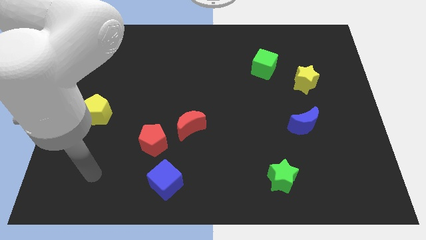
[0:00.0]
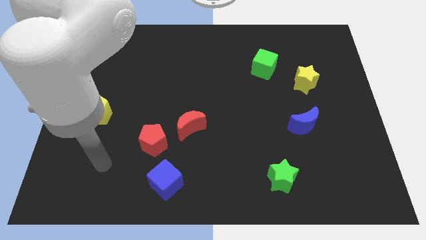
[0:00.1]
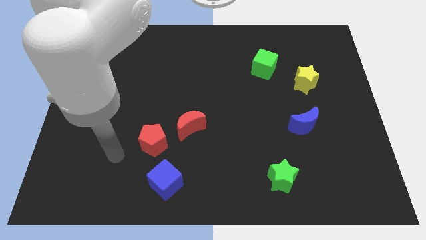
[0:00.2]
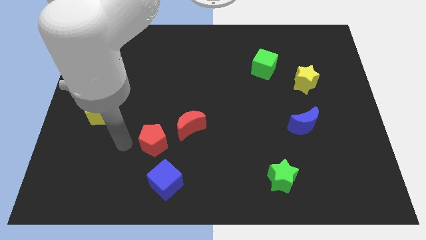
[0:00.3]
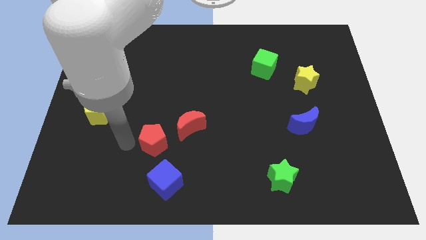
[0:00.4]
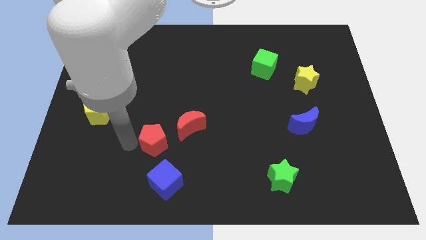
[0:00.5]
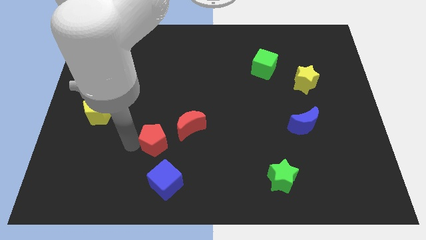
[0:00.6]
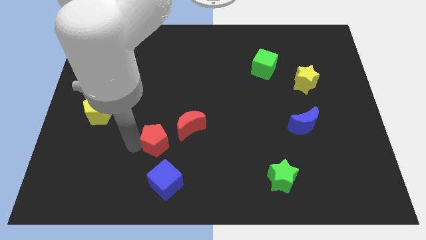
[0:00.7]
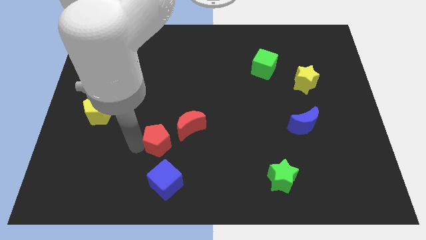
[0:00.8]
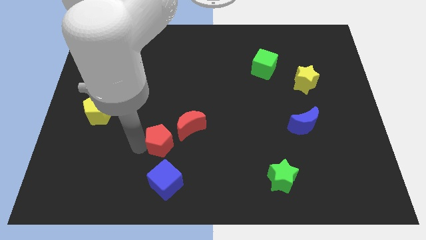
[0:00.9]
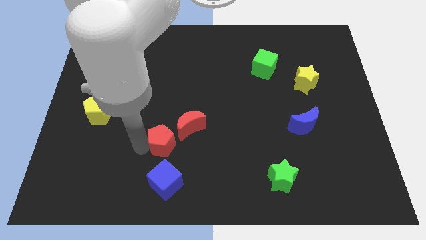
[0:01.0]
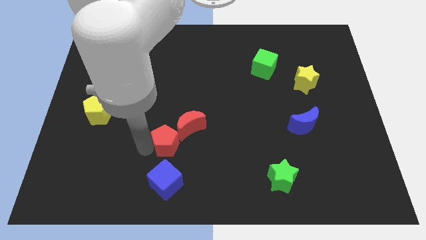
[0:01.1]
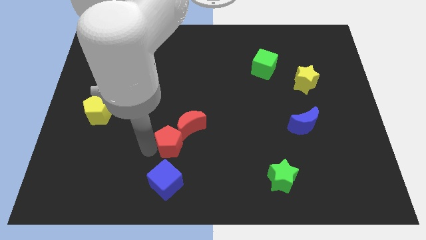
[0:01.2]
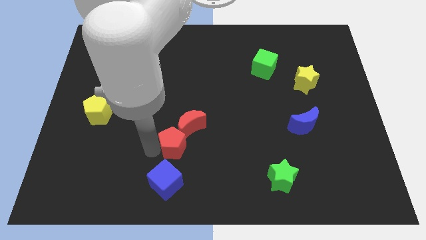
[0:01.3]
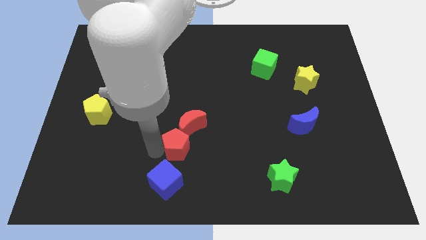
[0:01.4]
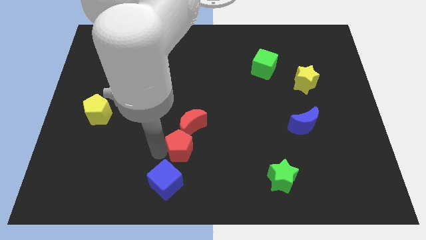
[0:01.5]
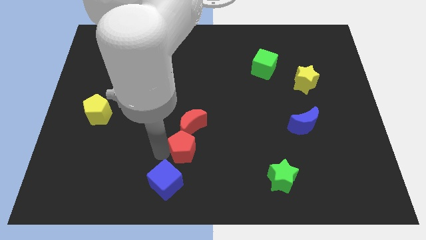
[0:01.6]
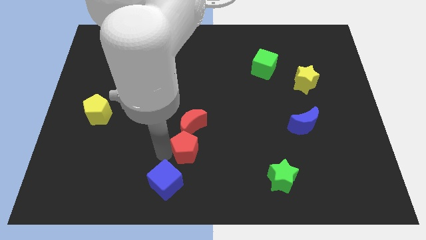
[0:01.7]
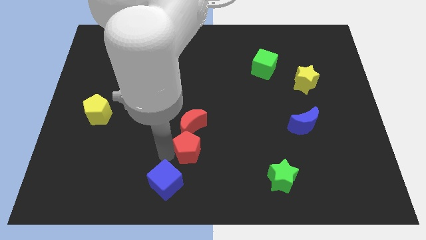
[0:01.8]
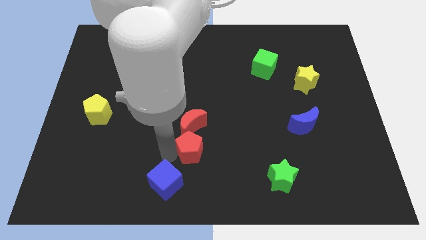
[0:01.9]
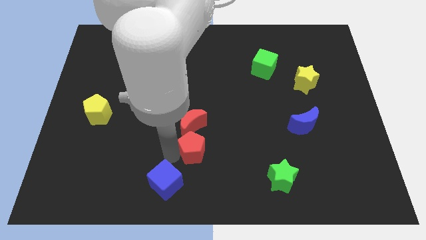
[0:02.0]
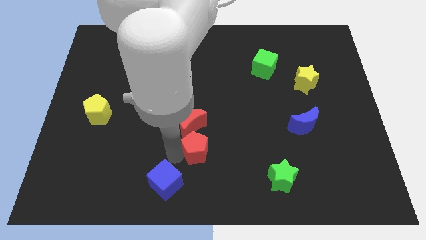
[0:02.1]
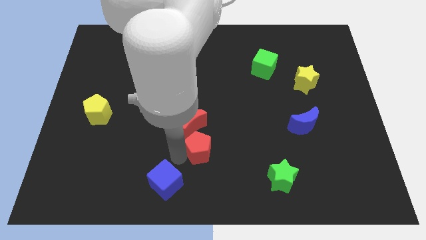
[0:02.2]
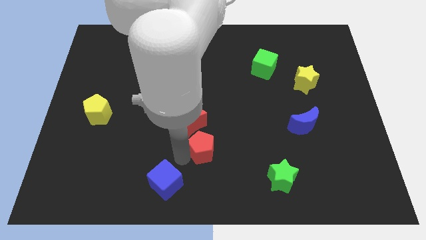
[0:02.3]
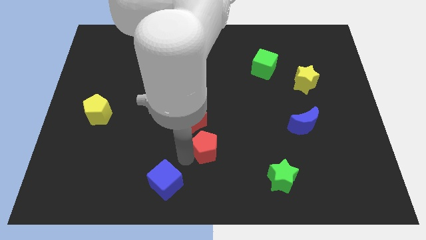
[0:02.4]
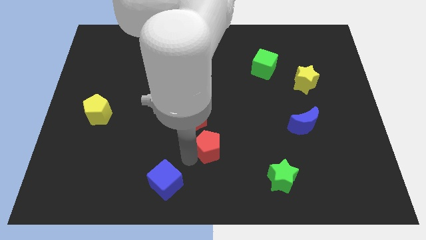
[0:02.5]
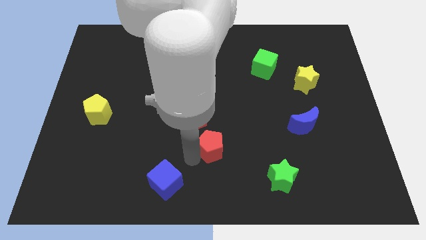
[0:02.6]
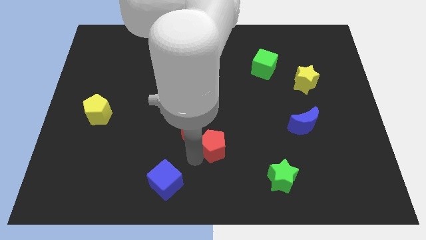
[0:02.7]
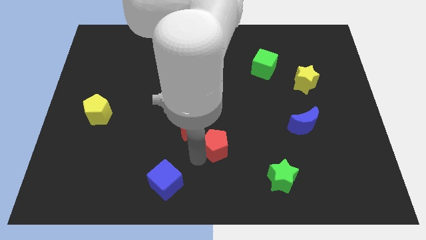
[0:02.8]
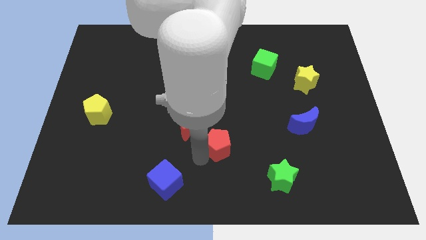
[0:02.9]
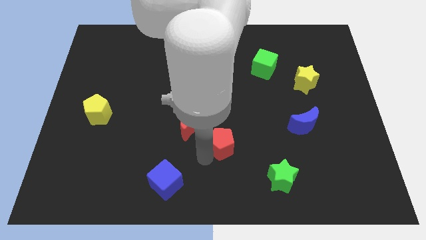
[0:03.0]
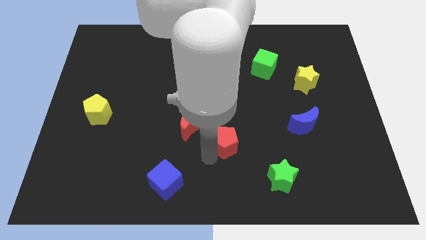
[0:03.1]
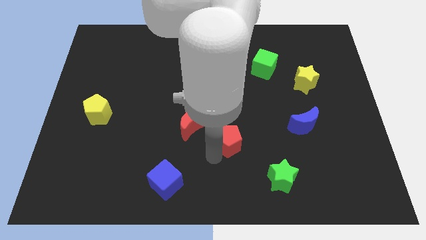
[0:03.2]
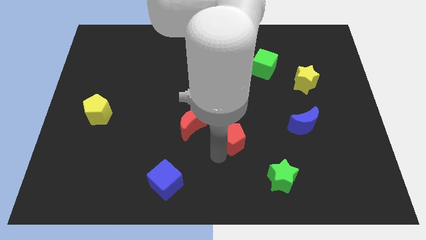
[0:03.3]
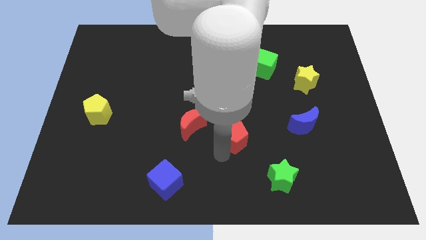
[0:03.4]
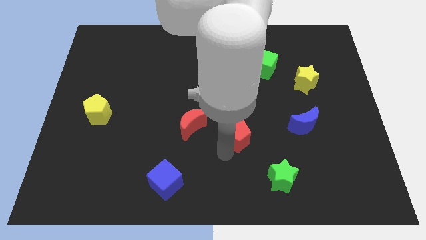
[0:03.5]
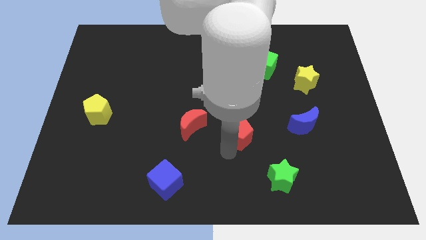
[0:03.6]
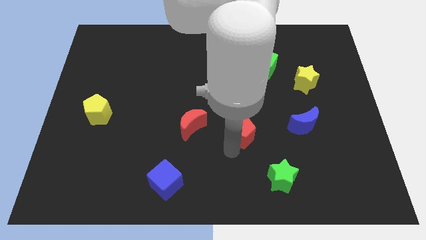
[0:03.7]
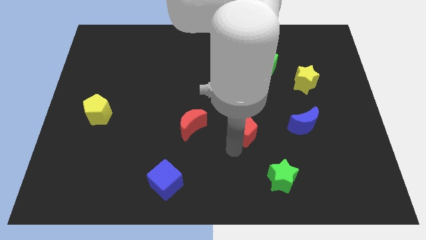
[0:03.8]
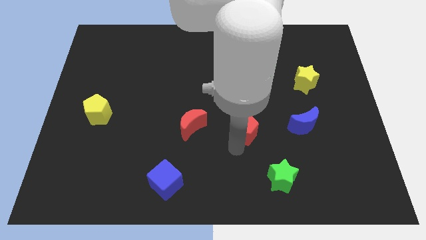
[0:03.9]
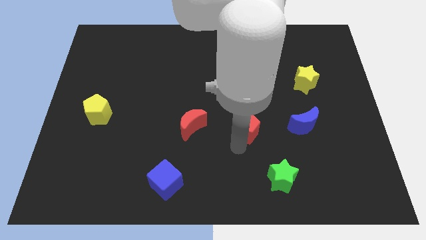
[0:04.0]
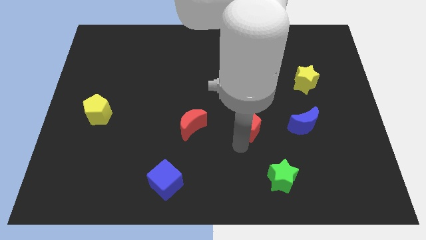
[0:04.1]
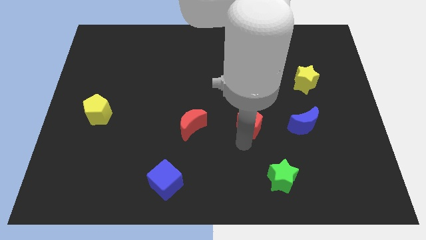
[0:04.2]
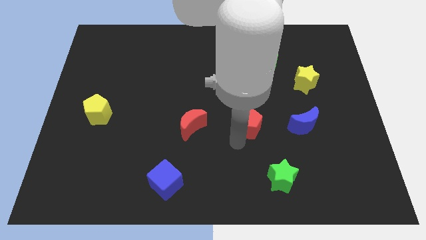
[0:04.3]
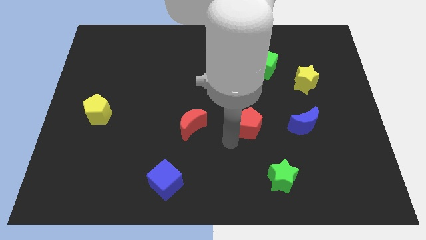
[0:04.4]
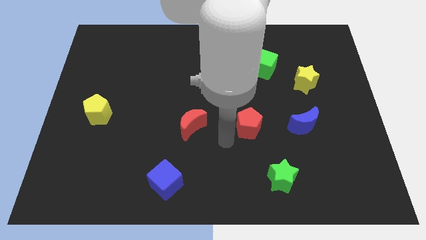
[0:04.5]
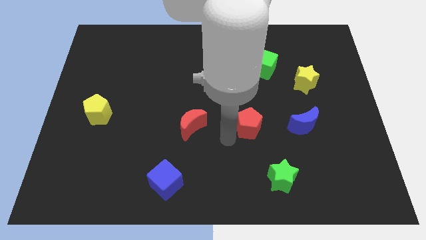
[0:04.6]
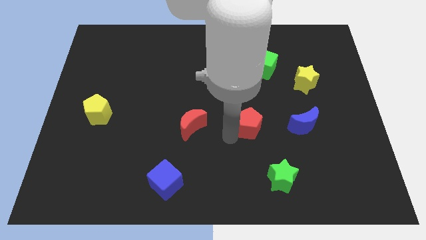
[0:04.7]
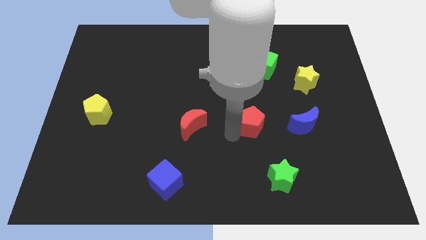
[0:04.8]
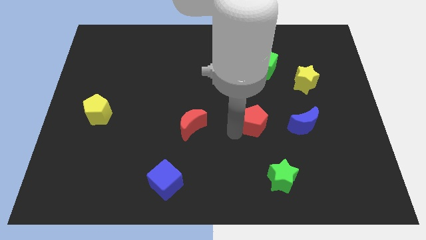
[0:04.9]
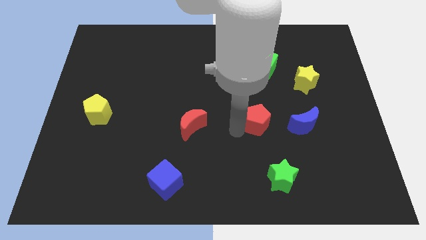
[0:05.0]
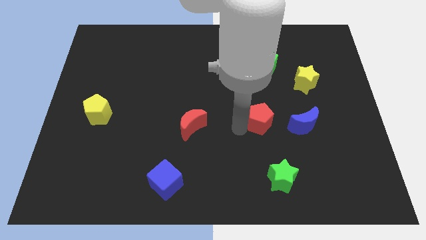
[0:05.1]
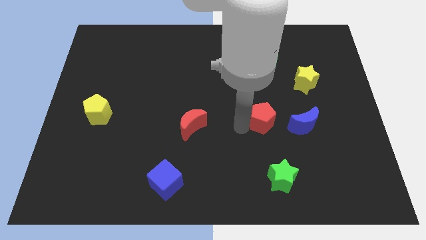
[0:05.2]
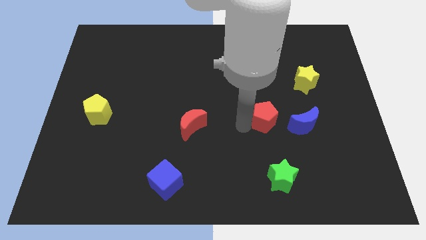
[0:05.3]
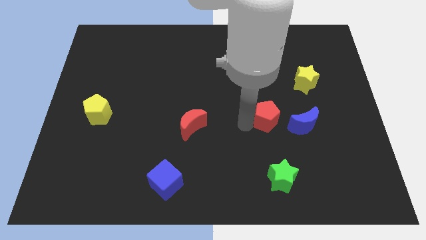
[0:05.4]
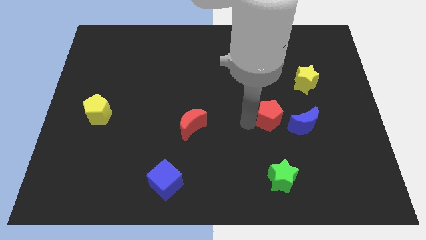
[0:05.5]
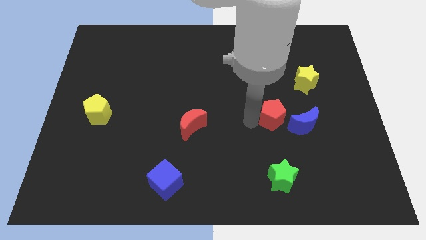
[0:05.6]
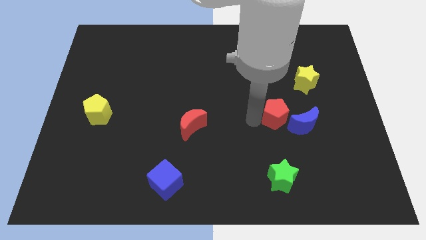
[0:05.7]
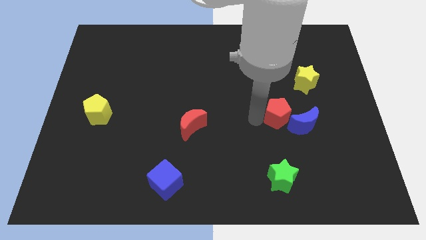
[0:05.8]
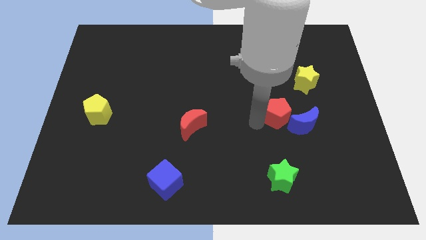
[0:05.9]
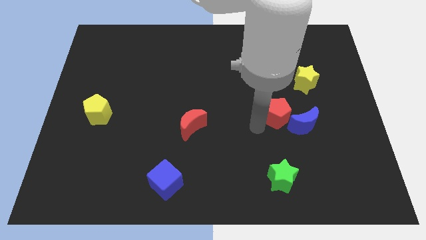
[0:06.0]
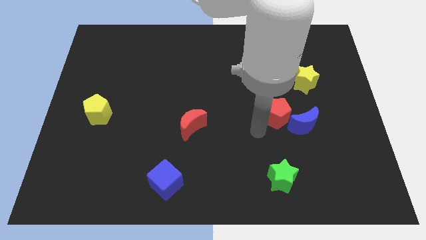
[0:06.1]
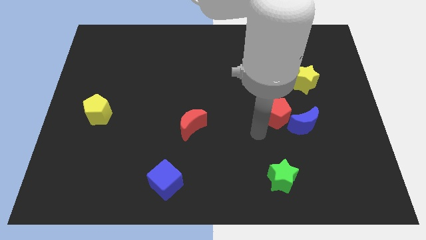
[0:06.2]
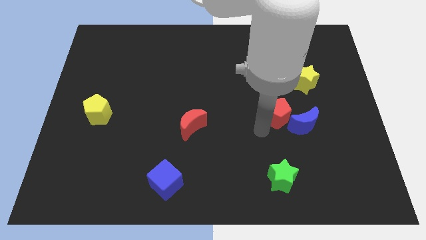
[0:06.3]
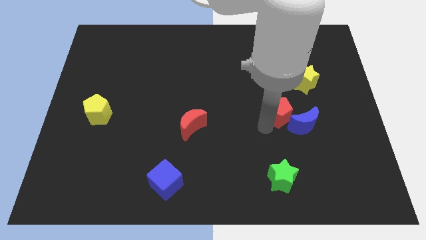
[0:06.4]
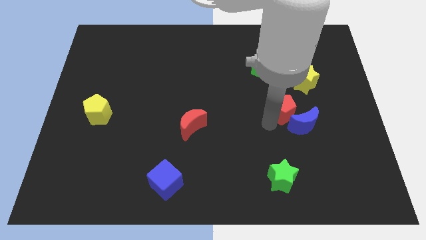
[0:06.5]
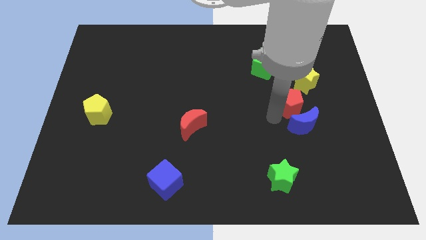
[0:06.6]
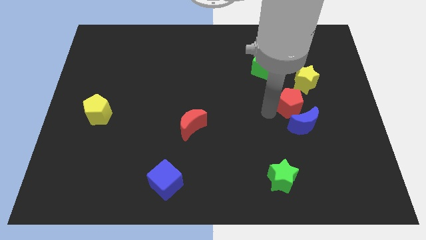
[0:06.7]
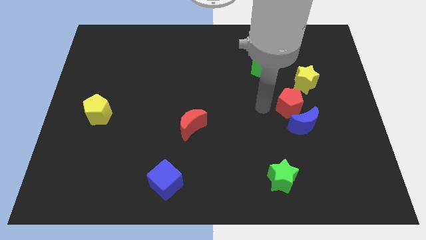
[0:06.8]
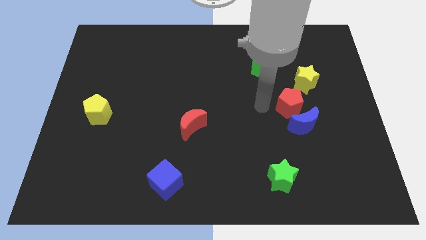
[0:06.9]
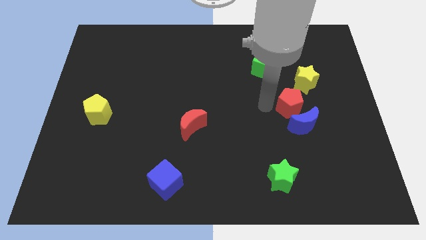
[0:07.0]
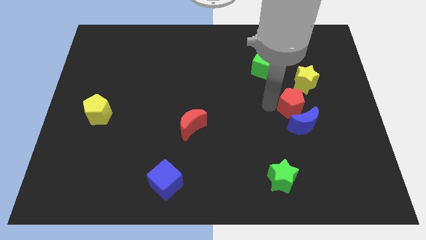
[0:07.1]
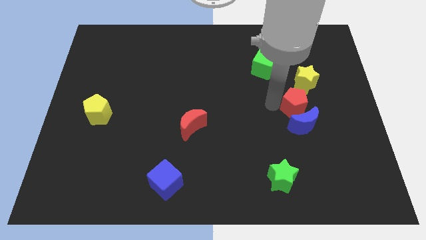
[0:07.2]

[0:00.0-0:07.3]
put the red pentagon to the top right of the blue moon

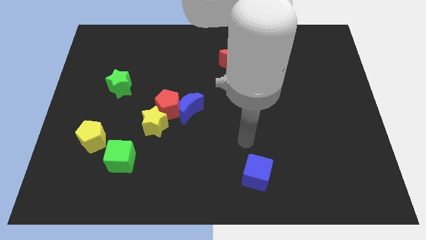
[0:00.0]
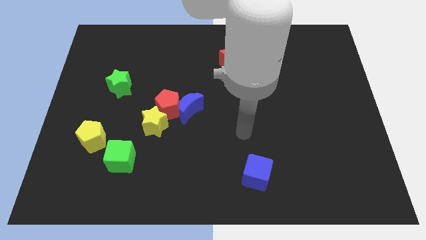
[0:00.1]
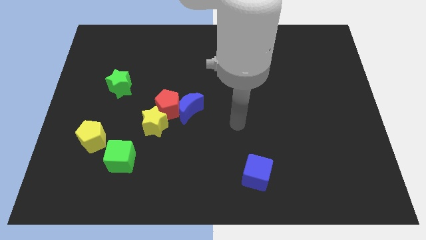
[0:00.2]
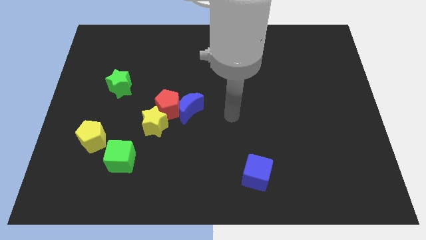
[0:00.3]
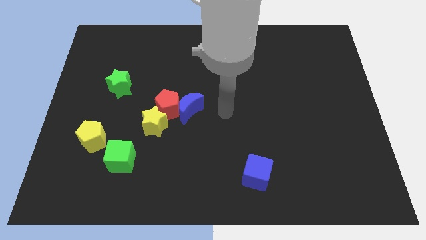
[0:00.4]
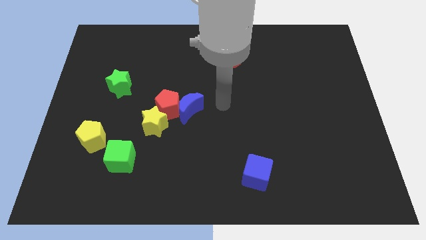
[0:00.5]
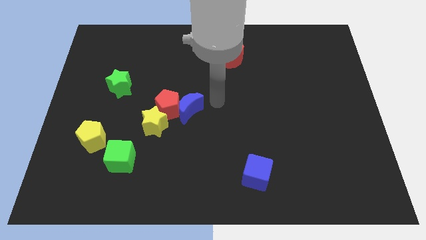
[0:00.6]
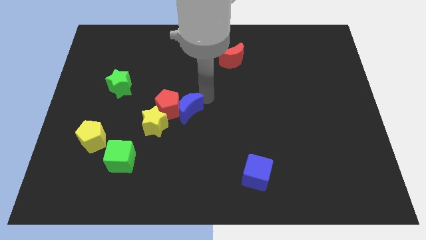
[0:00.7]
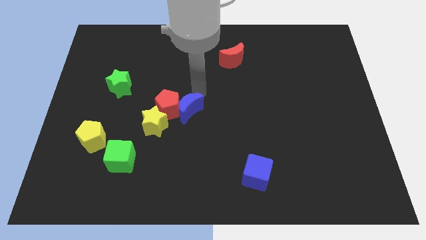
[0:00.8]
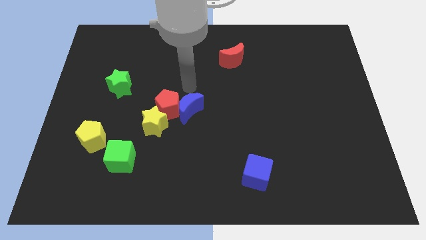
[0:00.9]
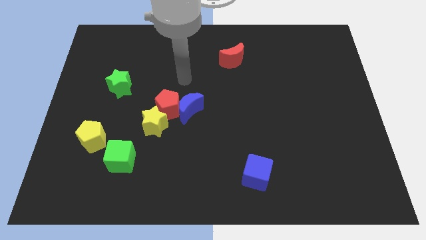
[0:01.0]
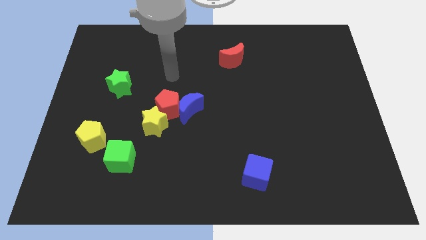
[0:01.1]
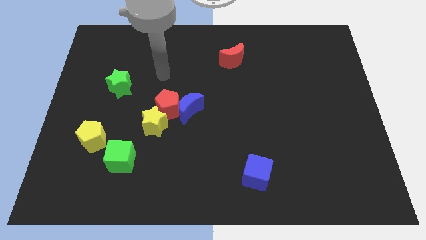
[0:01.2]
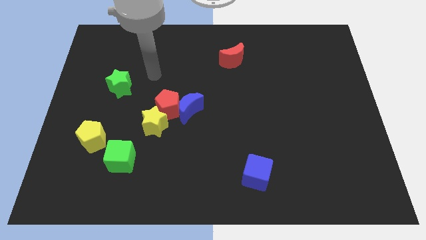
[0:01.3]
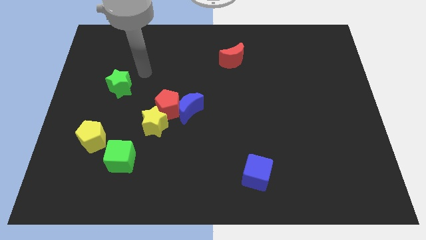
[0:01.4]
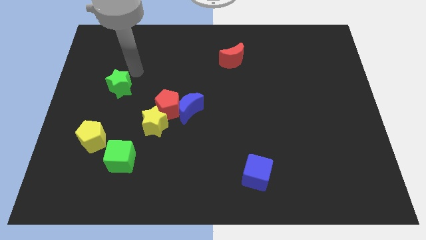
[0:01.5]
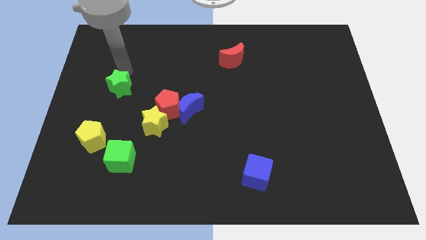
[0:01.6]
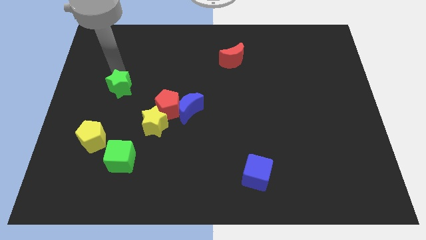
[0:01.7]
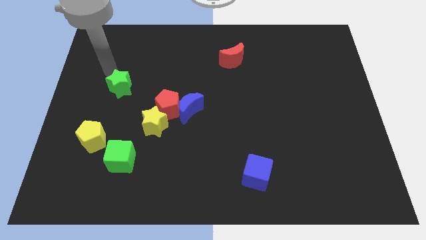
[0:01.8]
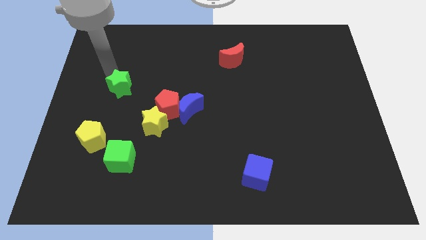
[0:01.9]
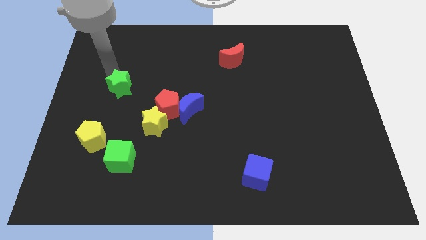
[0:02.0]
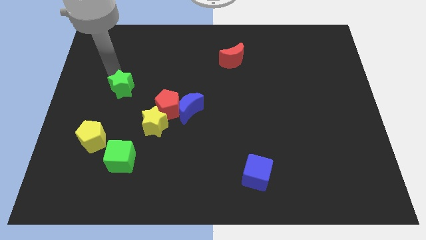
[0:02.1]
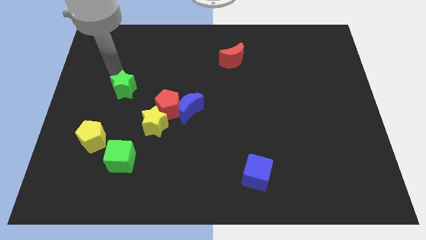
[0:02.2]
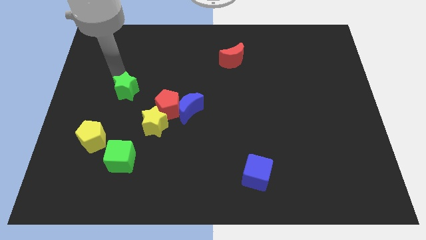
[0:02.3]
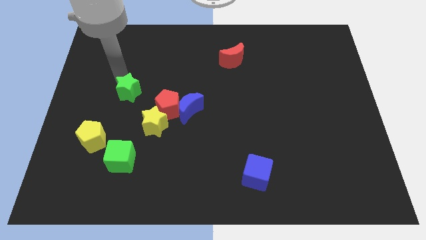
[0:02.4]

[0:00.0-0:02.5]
push the green star to the top left side of the yellow star
